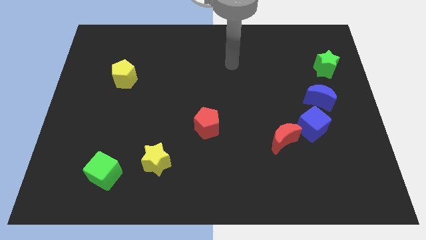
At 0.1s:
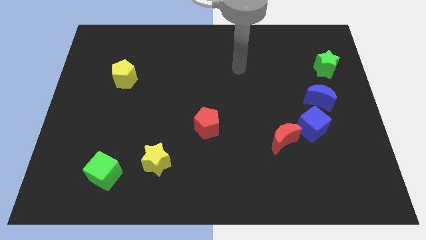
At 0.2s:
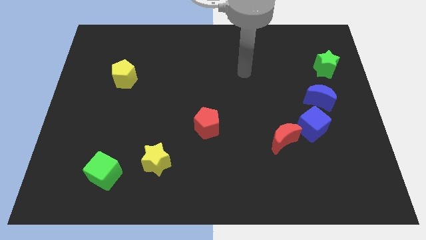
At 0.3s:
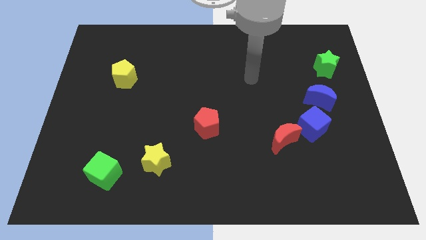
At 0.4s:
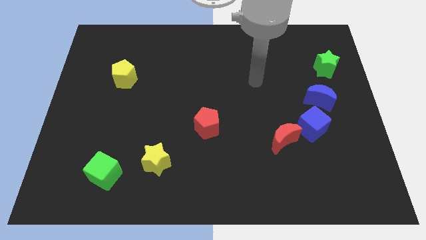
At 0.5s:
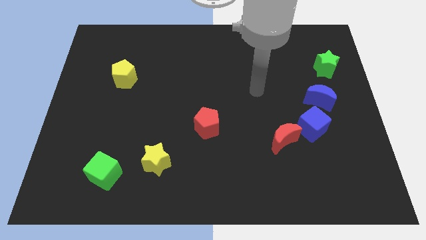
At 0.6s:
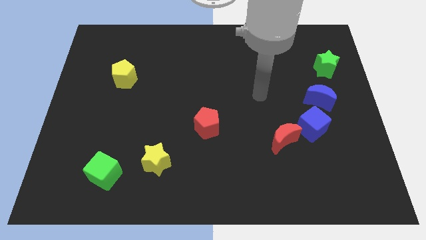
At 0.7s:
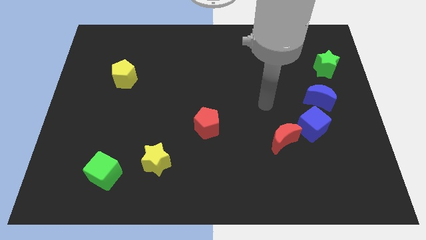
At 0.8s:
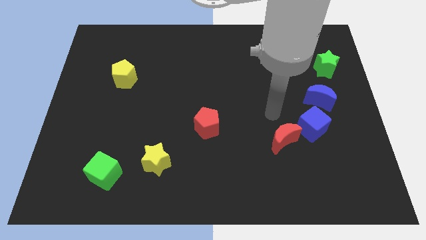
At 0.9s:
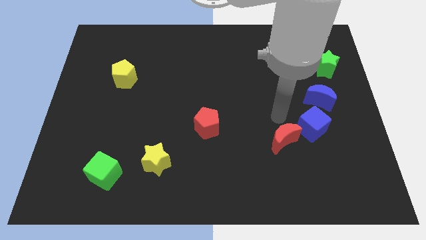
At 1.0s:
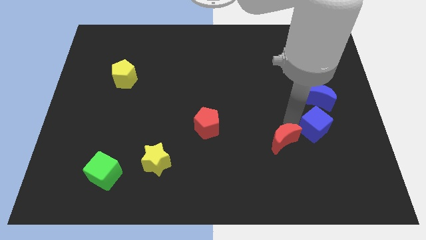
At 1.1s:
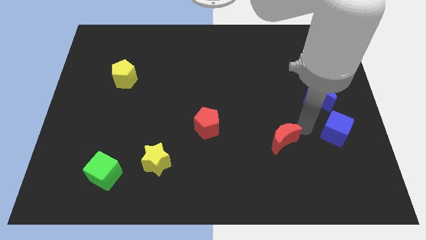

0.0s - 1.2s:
move the red moon away from the blue cube

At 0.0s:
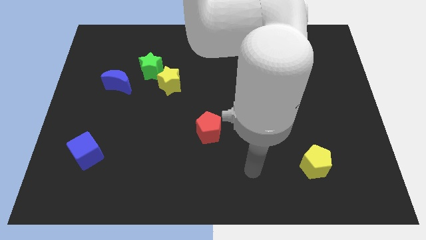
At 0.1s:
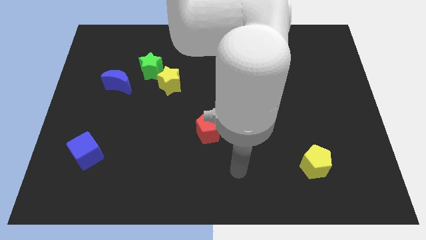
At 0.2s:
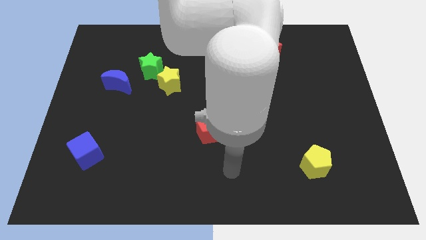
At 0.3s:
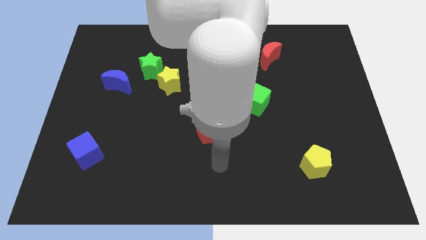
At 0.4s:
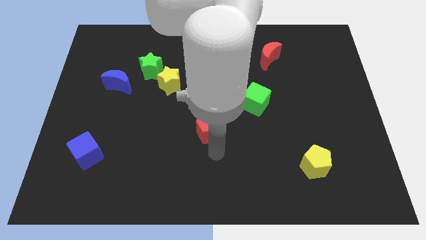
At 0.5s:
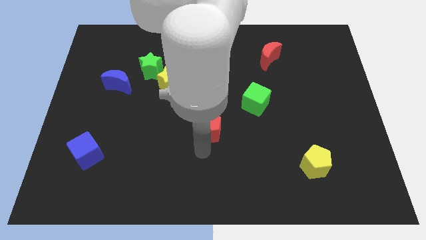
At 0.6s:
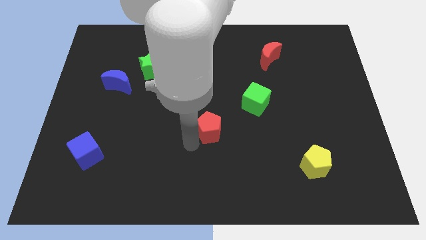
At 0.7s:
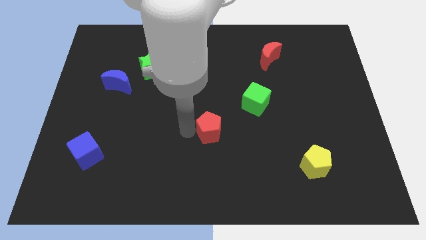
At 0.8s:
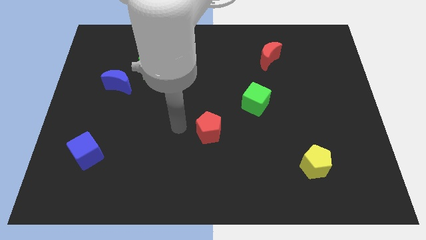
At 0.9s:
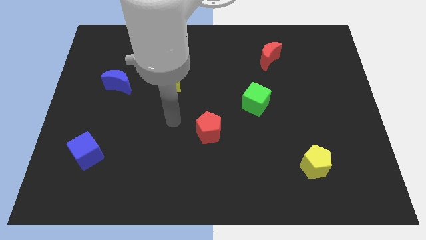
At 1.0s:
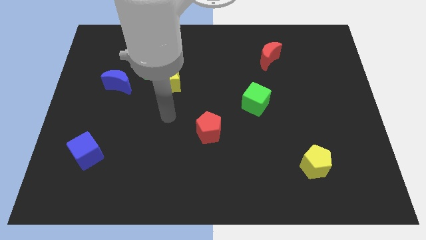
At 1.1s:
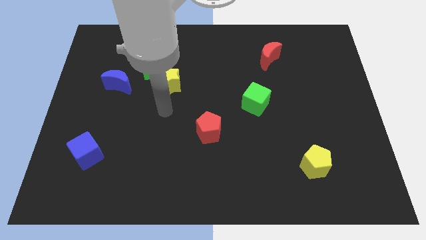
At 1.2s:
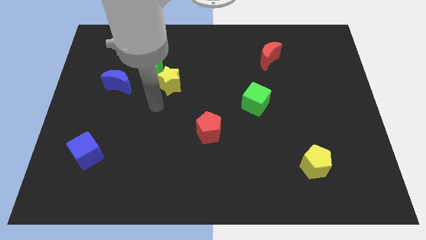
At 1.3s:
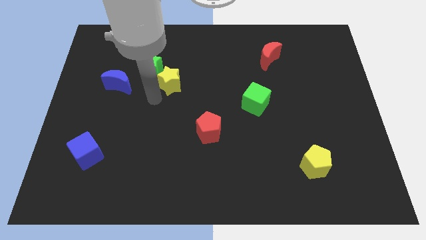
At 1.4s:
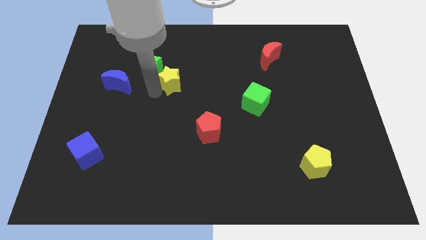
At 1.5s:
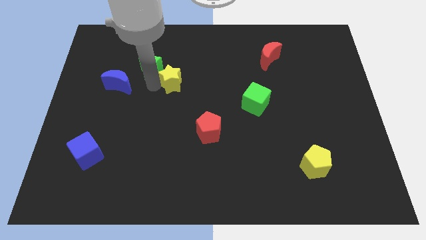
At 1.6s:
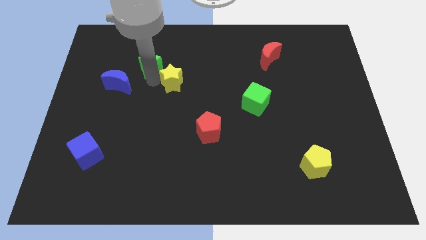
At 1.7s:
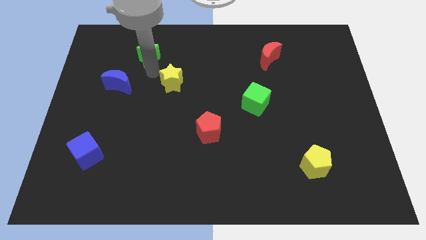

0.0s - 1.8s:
move the yellow star away from the green star

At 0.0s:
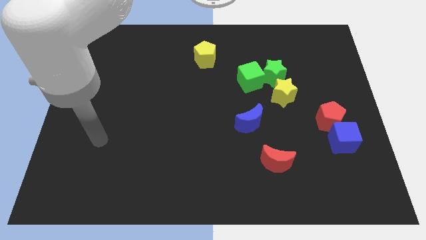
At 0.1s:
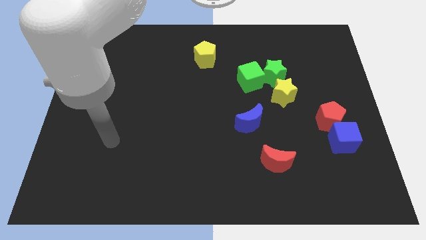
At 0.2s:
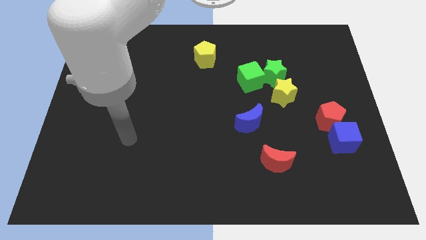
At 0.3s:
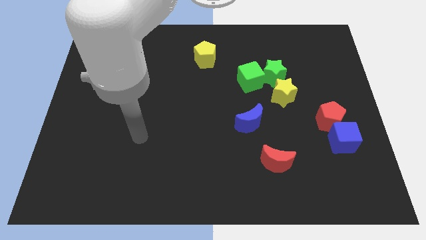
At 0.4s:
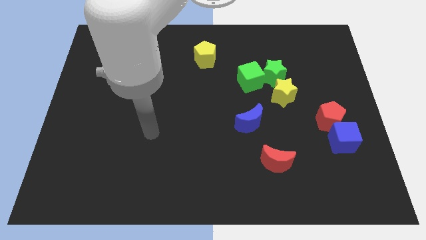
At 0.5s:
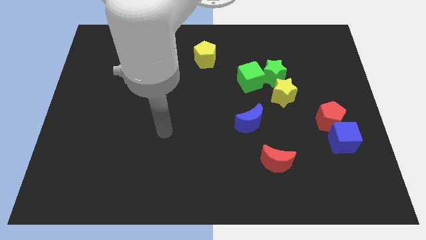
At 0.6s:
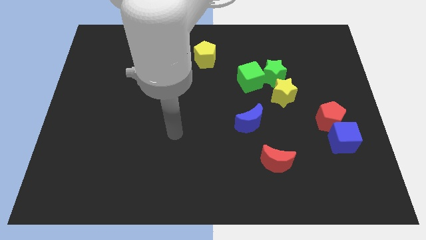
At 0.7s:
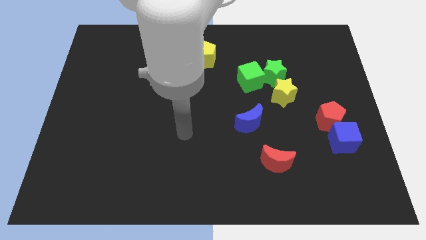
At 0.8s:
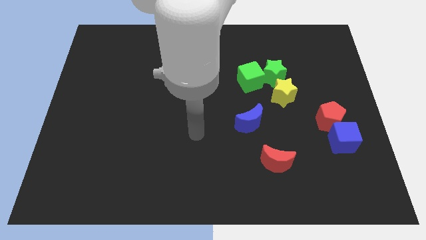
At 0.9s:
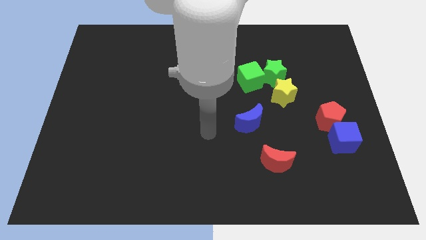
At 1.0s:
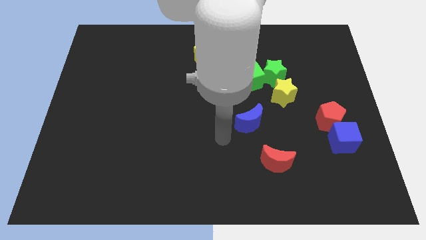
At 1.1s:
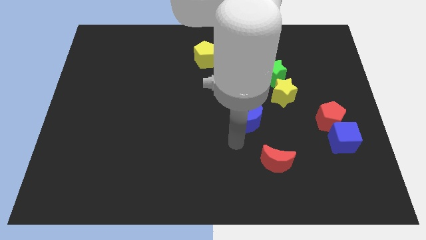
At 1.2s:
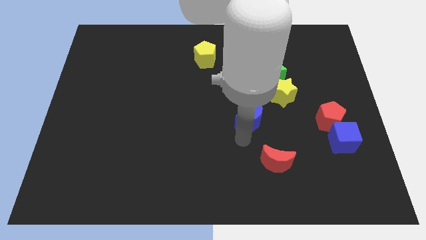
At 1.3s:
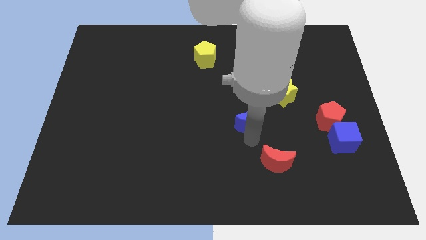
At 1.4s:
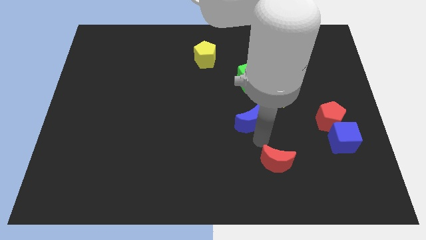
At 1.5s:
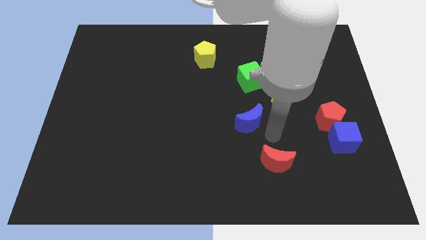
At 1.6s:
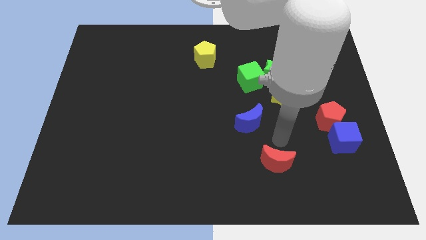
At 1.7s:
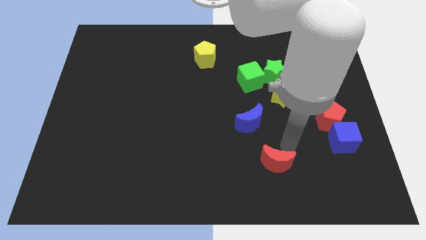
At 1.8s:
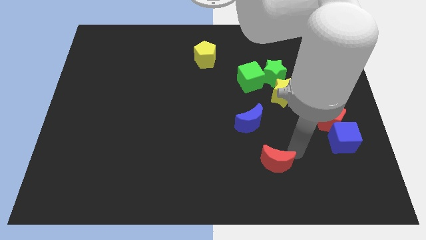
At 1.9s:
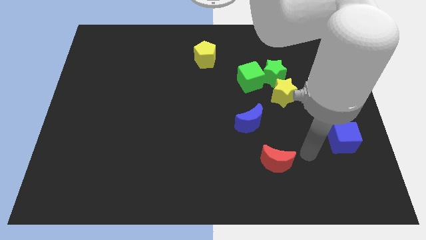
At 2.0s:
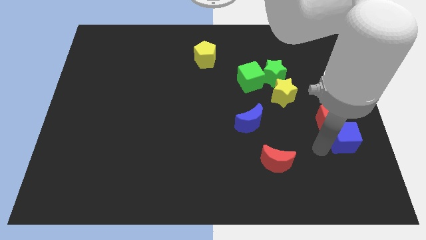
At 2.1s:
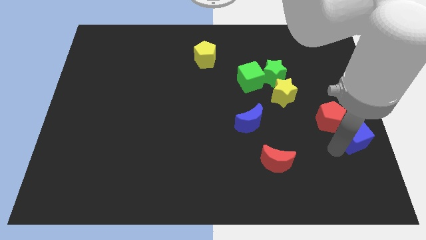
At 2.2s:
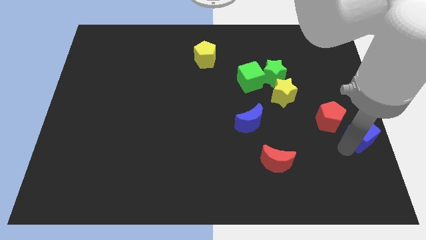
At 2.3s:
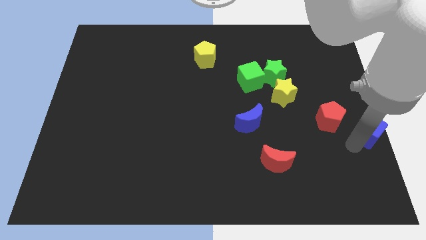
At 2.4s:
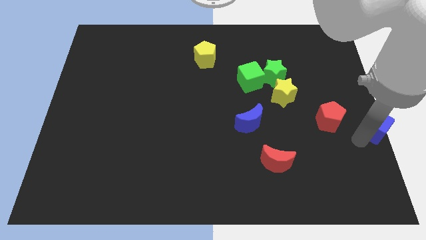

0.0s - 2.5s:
separate the red pentagon from the blue cube

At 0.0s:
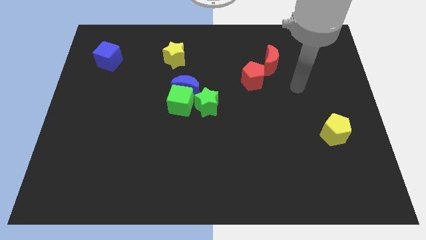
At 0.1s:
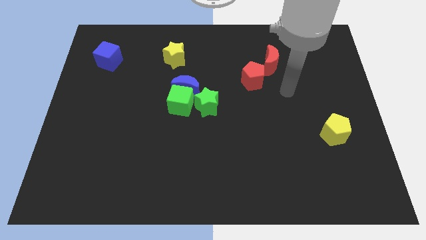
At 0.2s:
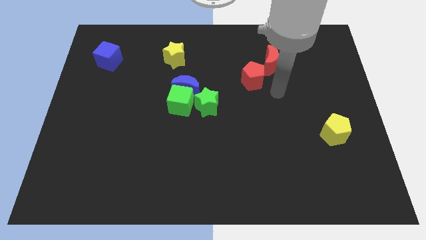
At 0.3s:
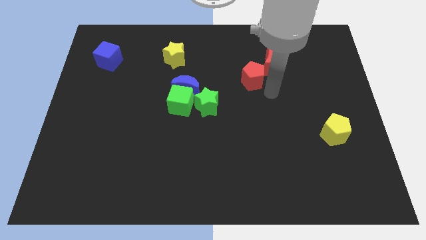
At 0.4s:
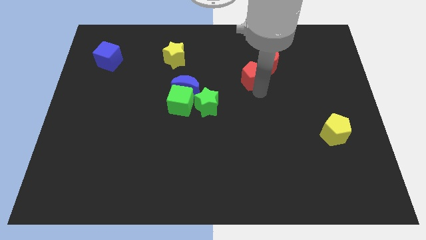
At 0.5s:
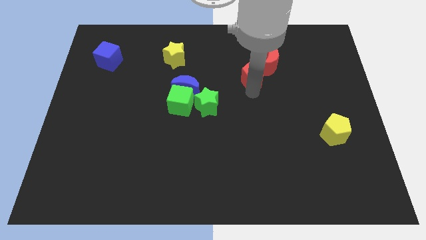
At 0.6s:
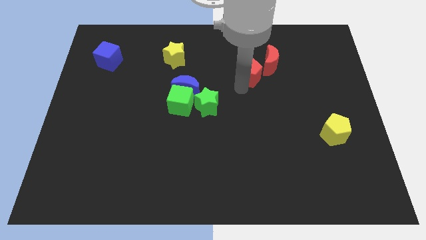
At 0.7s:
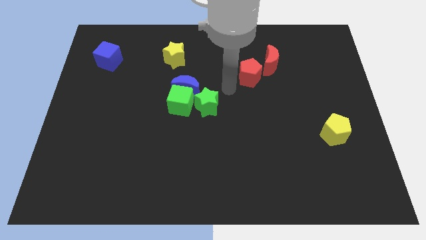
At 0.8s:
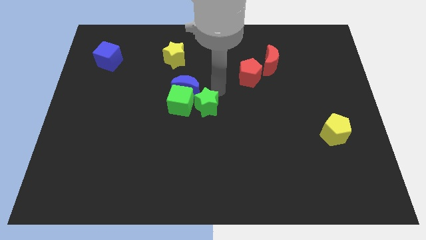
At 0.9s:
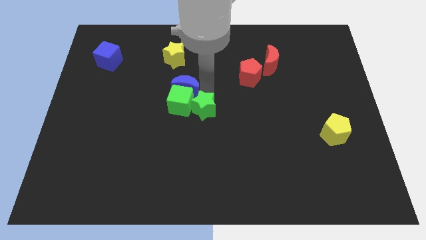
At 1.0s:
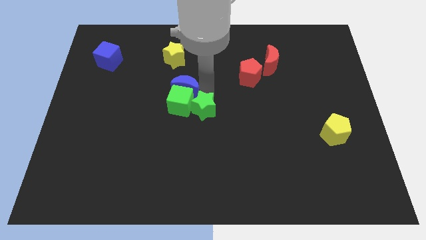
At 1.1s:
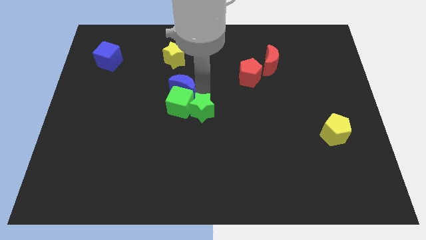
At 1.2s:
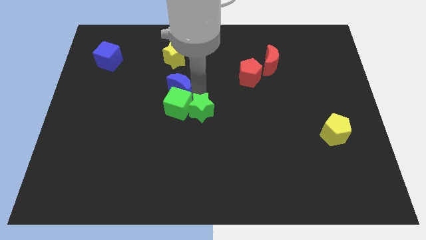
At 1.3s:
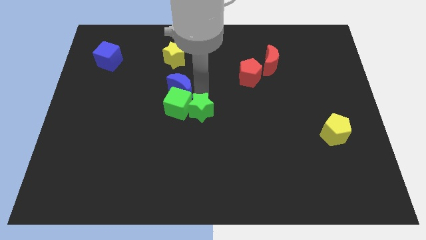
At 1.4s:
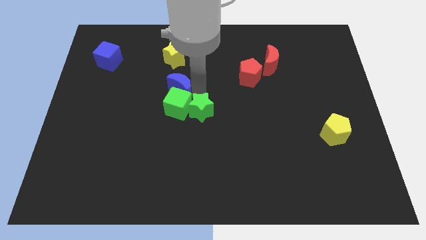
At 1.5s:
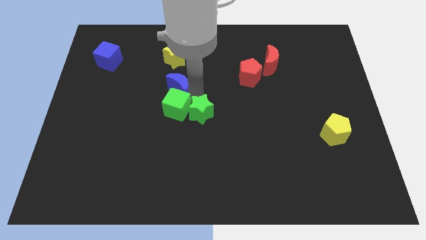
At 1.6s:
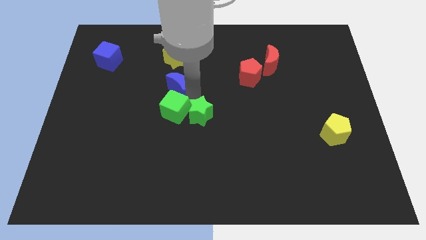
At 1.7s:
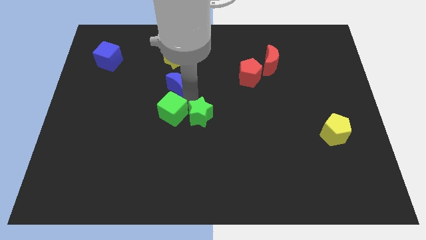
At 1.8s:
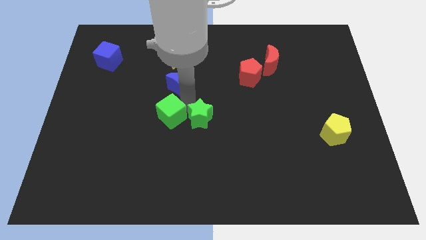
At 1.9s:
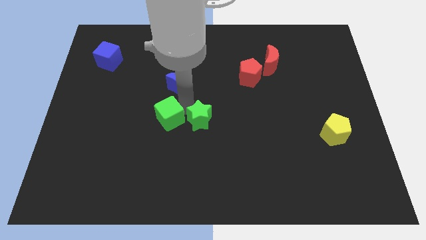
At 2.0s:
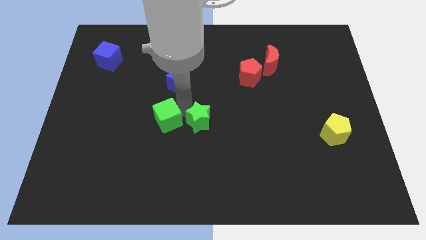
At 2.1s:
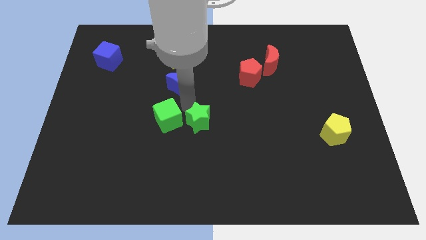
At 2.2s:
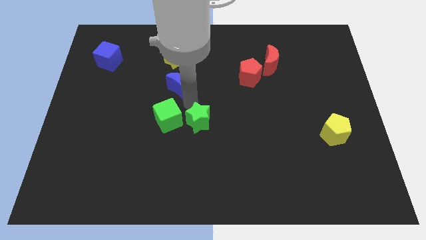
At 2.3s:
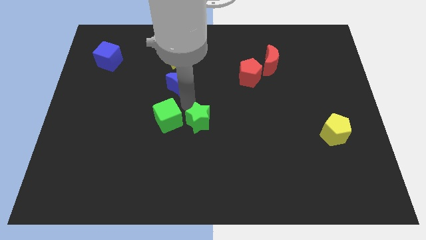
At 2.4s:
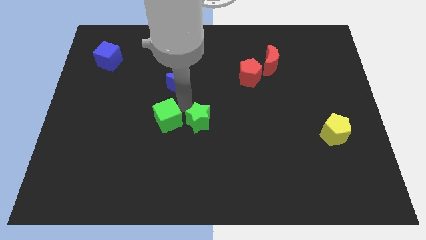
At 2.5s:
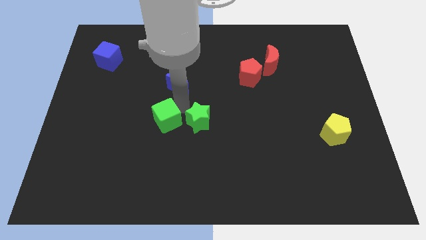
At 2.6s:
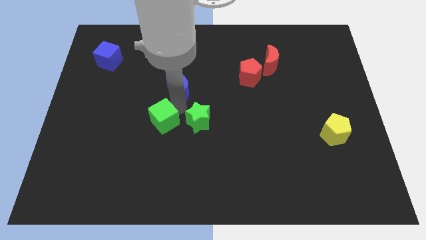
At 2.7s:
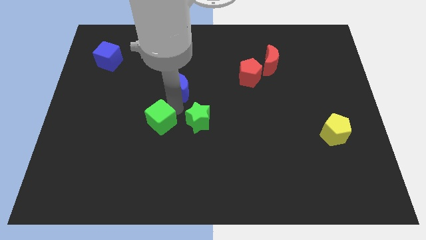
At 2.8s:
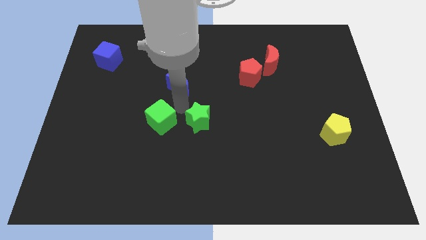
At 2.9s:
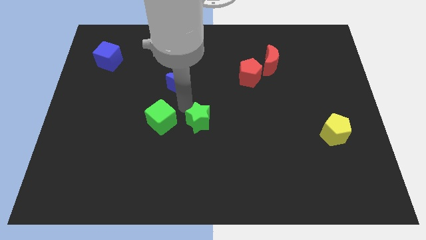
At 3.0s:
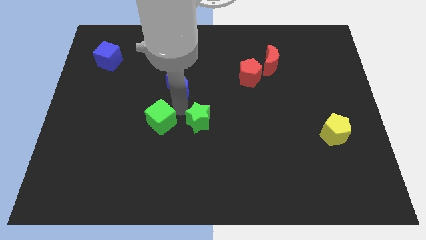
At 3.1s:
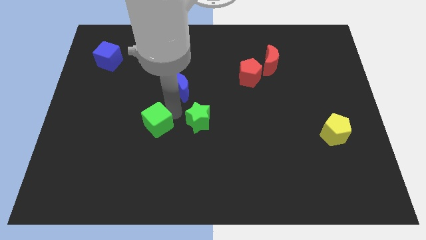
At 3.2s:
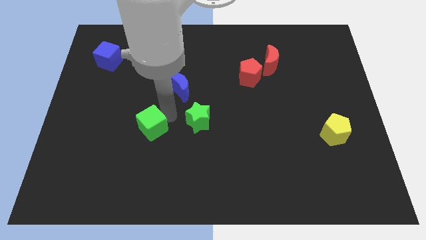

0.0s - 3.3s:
pull the green cube apart from the blue moon and green star

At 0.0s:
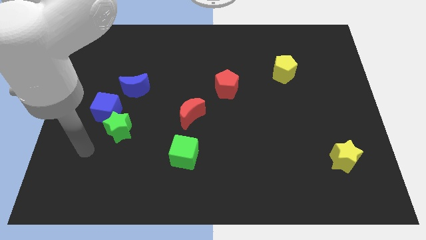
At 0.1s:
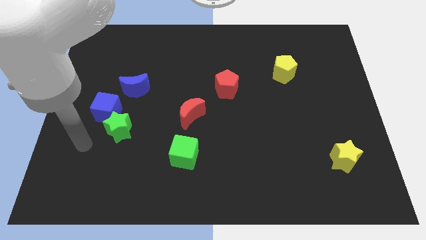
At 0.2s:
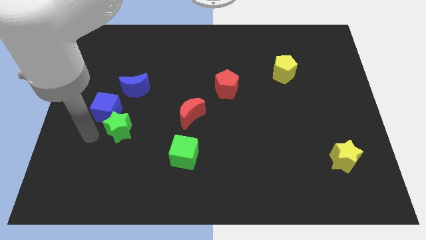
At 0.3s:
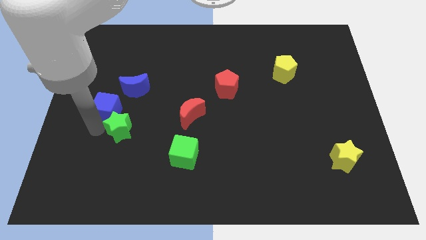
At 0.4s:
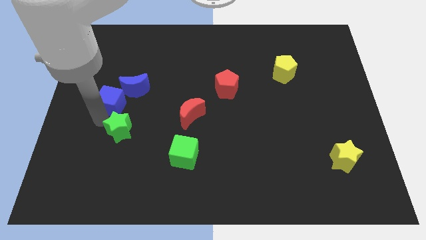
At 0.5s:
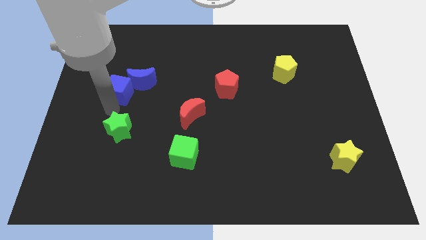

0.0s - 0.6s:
move the green star away from the blue cube
